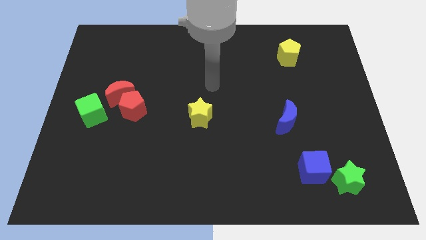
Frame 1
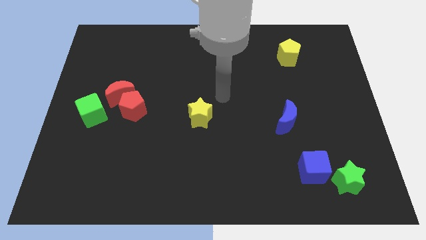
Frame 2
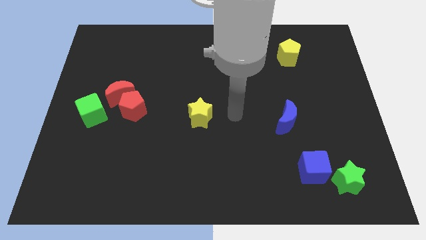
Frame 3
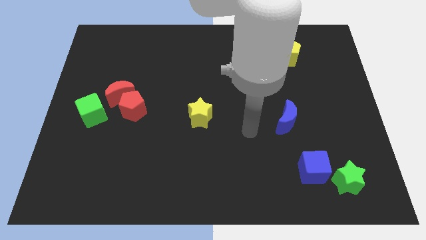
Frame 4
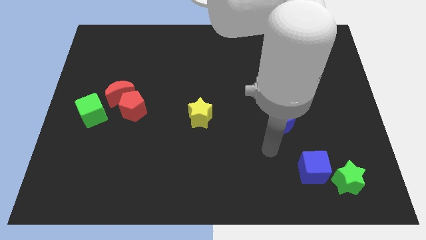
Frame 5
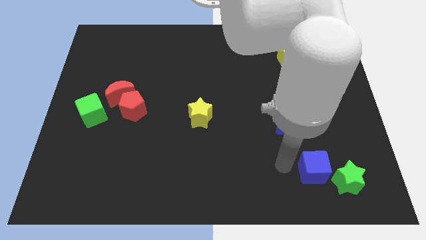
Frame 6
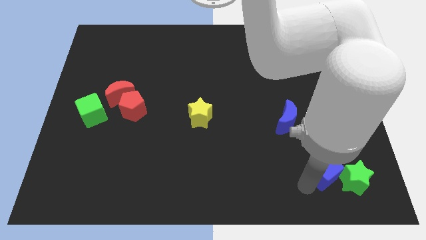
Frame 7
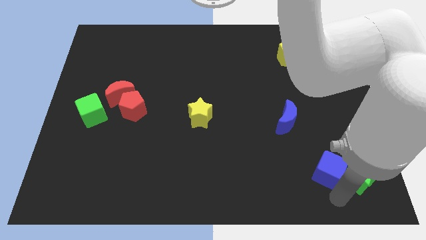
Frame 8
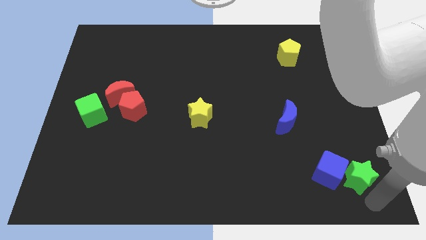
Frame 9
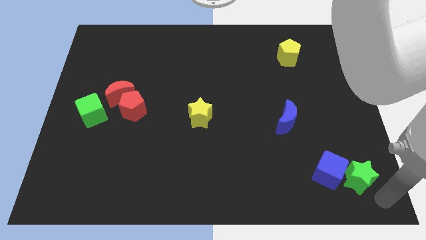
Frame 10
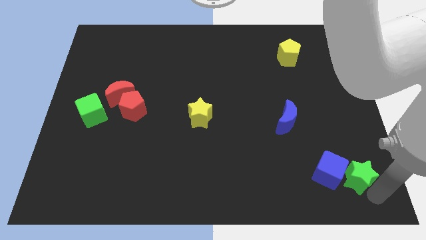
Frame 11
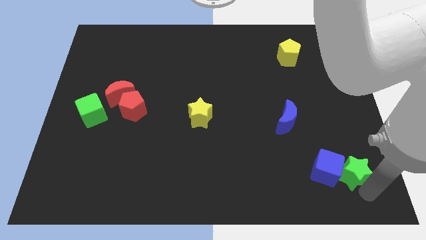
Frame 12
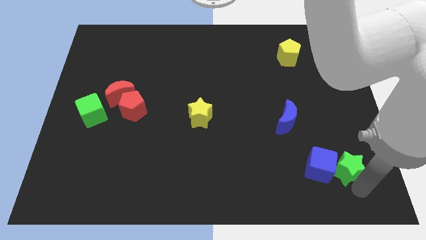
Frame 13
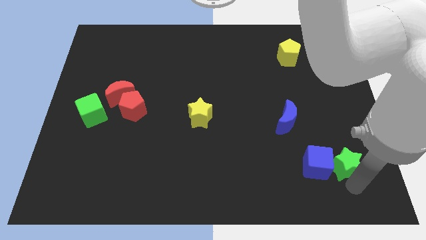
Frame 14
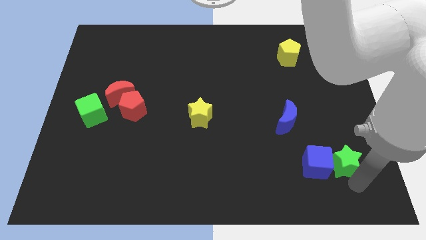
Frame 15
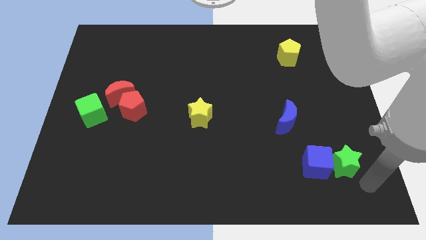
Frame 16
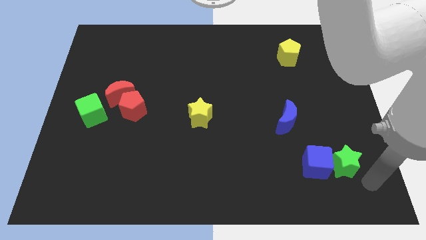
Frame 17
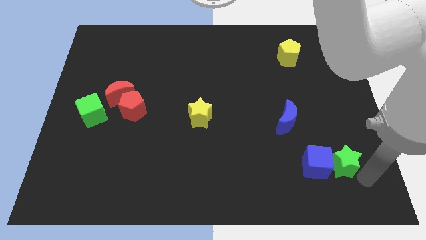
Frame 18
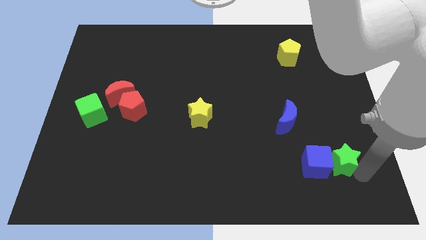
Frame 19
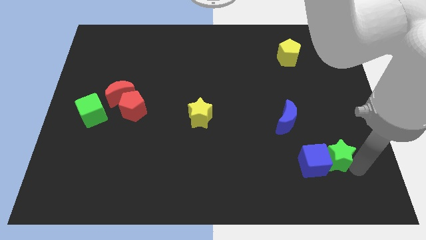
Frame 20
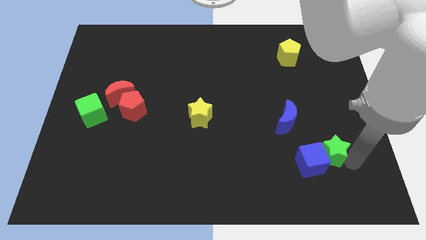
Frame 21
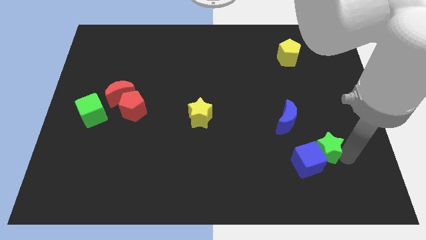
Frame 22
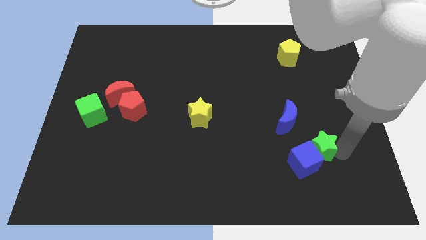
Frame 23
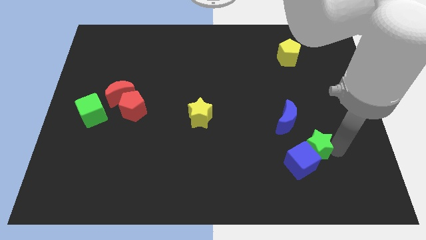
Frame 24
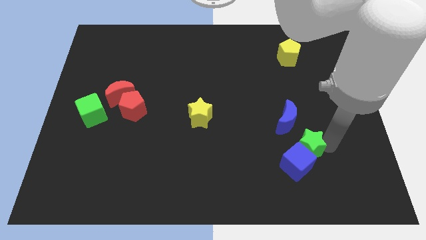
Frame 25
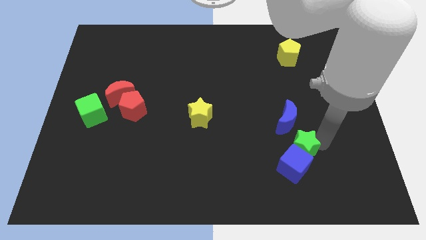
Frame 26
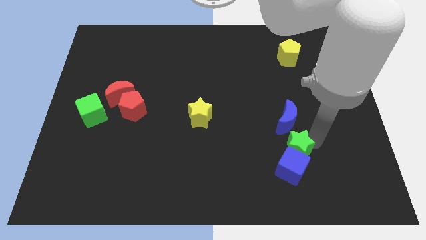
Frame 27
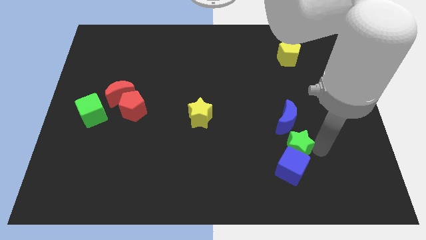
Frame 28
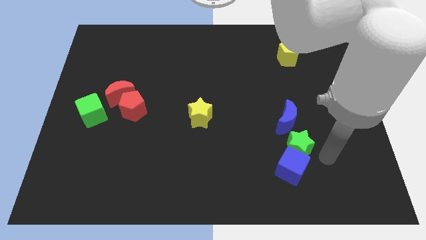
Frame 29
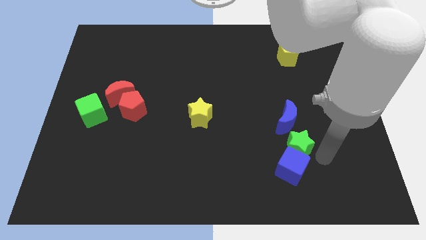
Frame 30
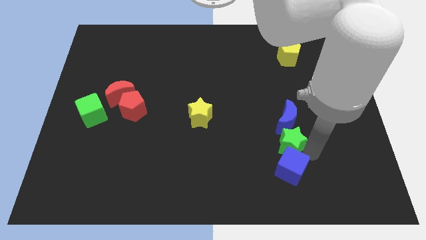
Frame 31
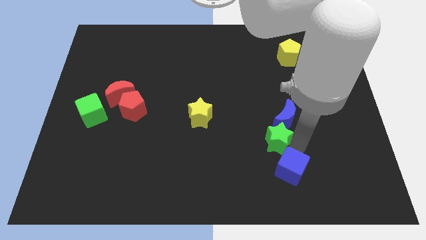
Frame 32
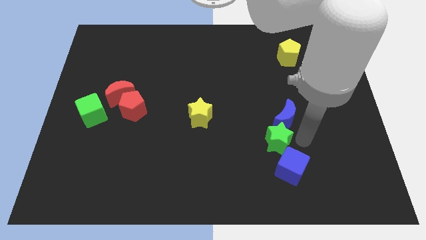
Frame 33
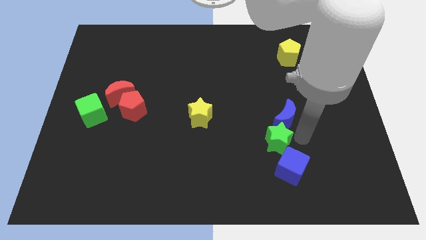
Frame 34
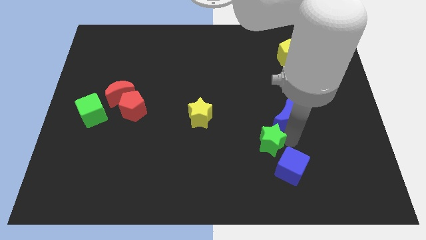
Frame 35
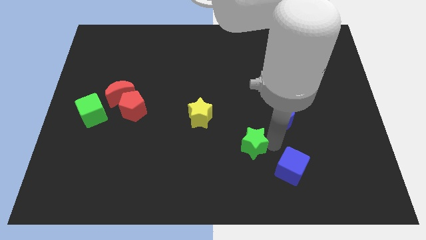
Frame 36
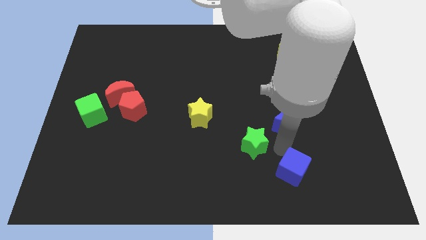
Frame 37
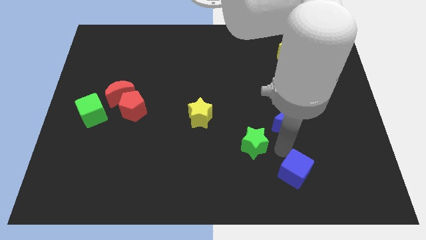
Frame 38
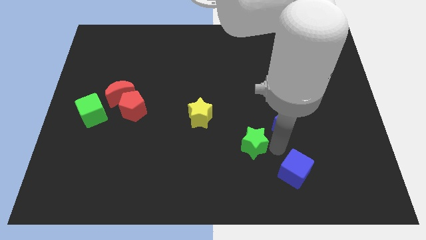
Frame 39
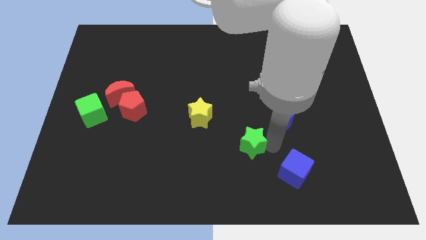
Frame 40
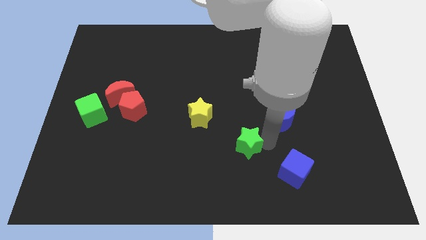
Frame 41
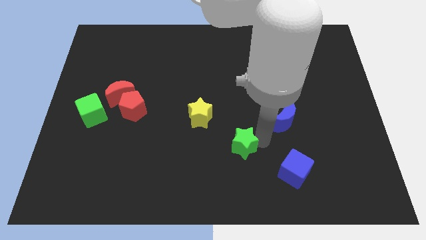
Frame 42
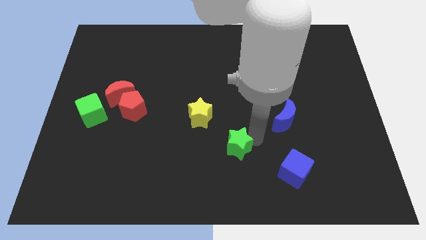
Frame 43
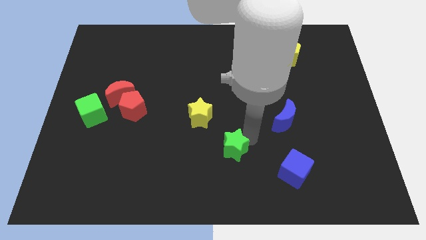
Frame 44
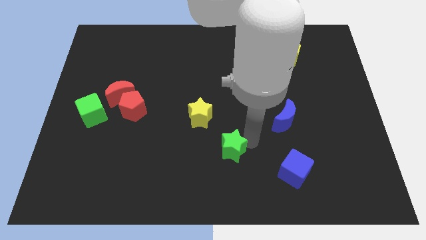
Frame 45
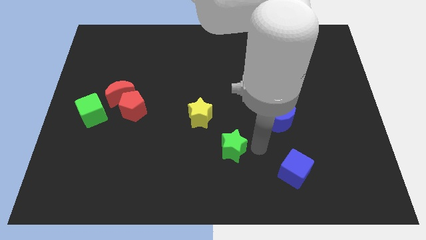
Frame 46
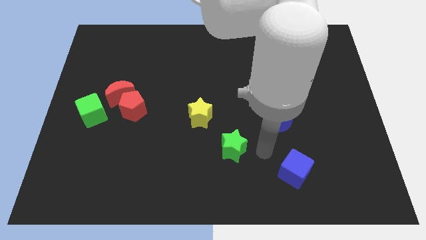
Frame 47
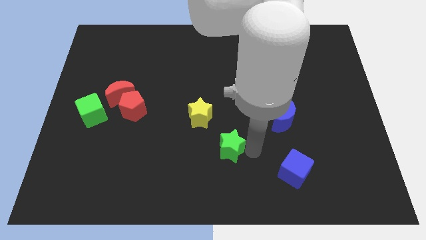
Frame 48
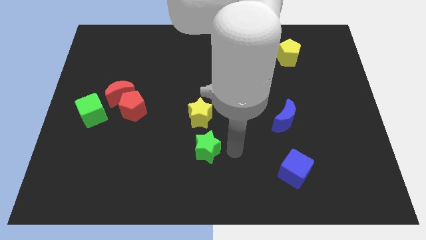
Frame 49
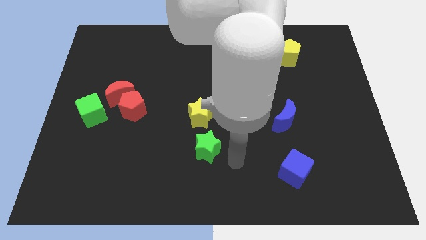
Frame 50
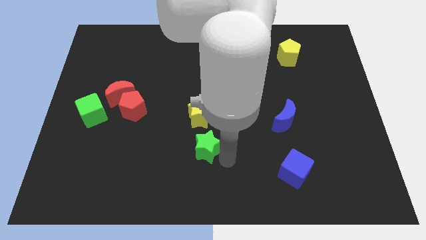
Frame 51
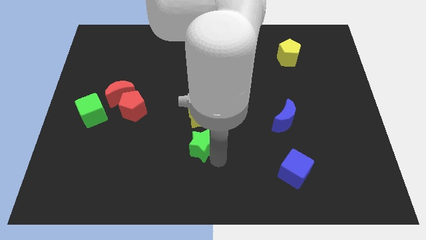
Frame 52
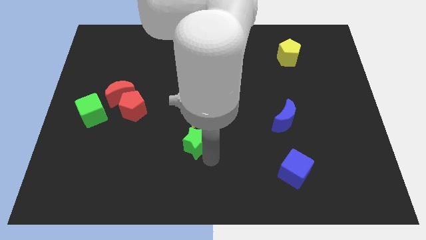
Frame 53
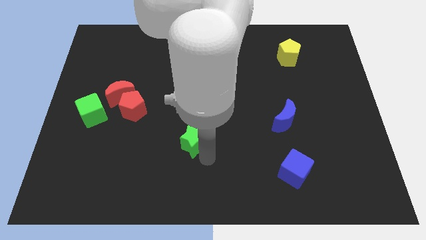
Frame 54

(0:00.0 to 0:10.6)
push the green star diagonally down and to the left of the yellow star

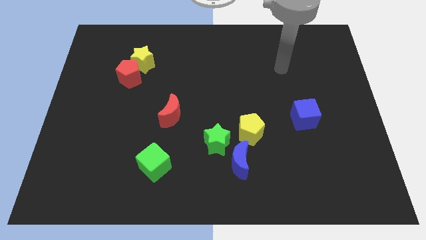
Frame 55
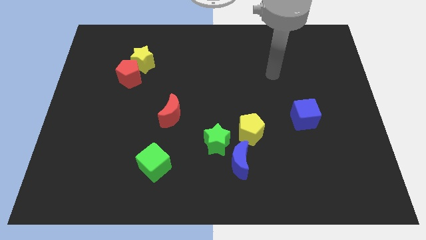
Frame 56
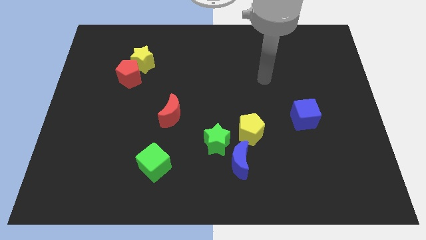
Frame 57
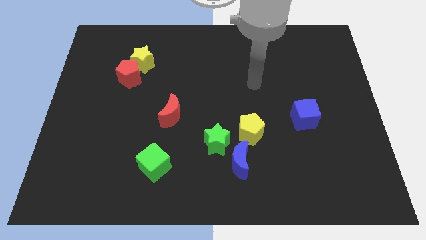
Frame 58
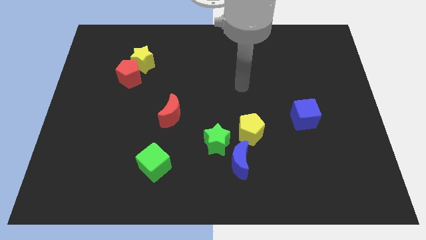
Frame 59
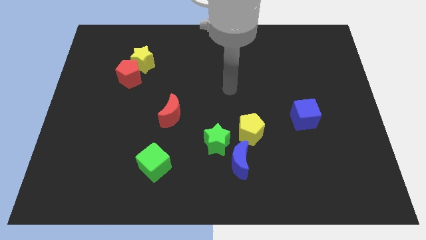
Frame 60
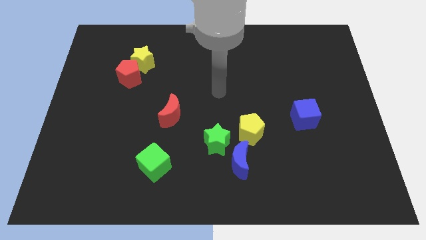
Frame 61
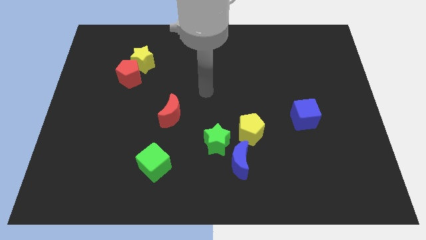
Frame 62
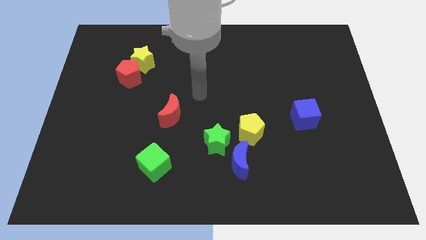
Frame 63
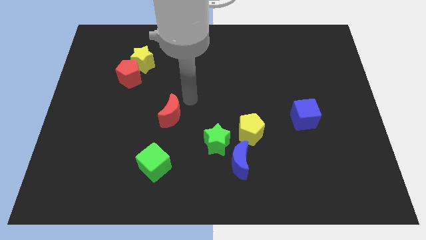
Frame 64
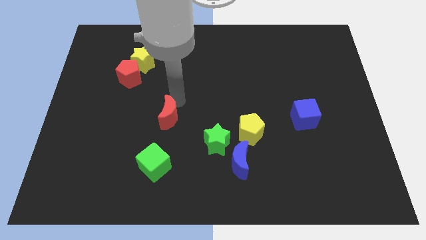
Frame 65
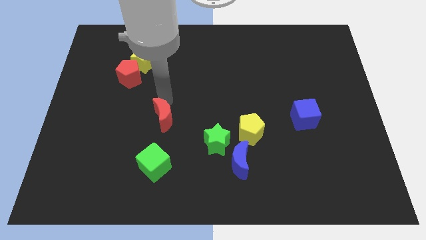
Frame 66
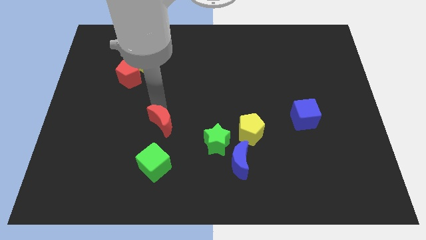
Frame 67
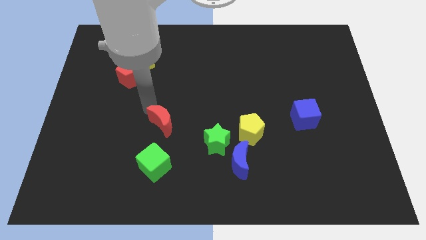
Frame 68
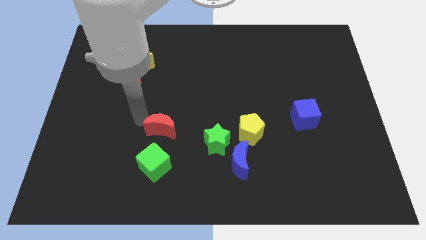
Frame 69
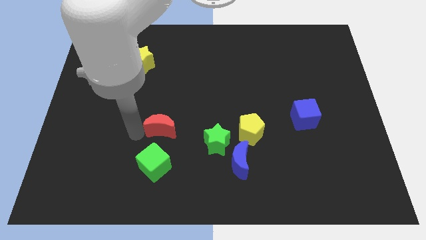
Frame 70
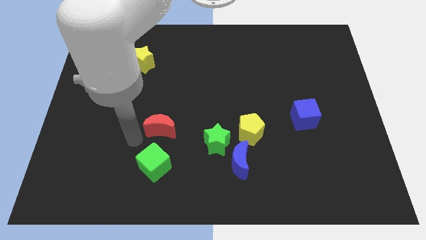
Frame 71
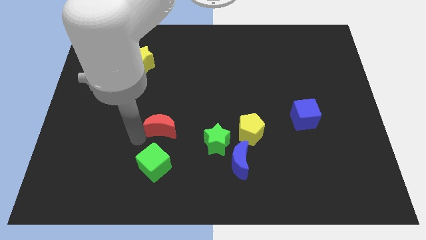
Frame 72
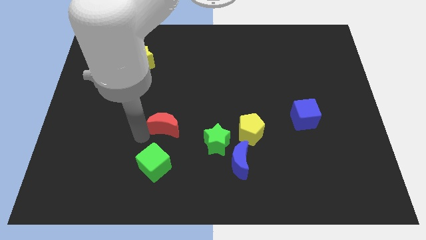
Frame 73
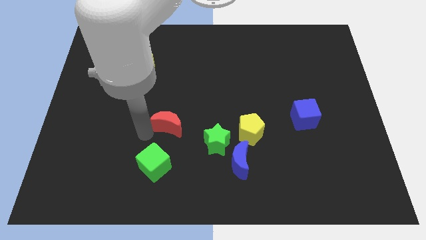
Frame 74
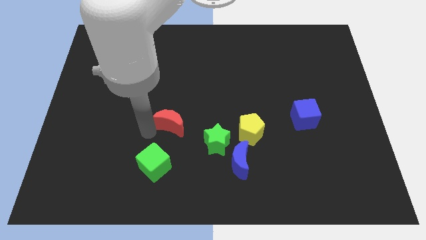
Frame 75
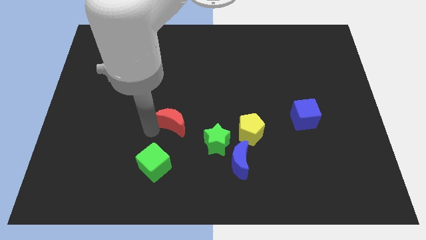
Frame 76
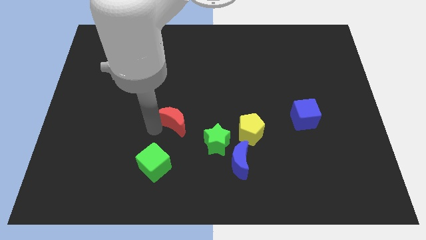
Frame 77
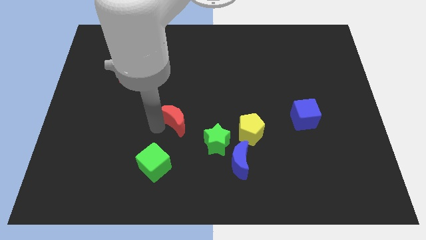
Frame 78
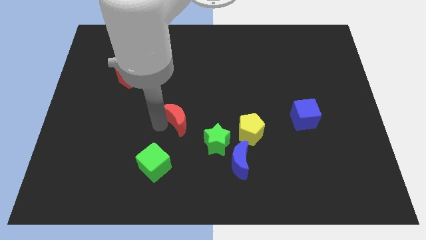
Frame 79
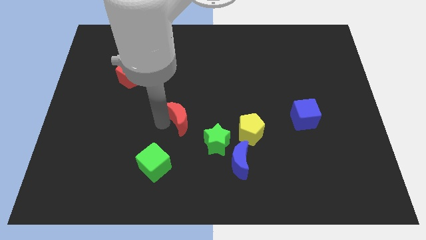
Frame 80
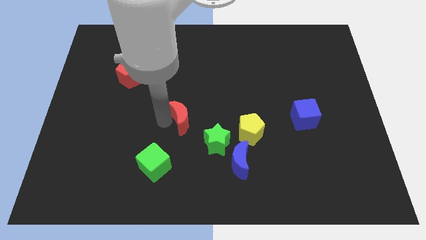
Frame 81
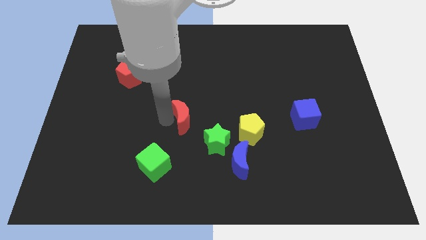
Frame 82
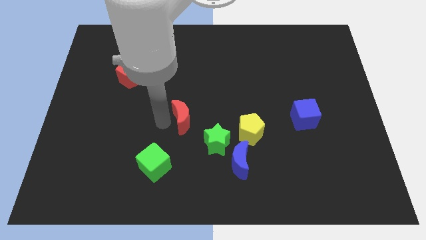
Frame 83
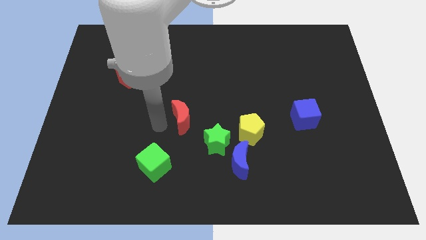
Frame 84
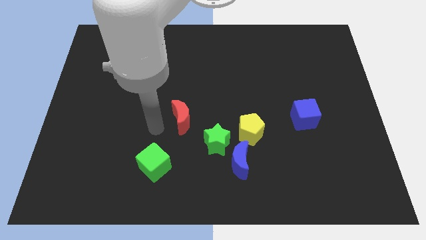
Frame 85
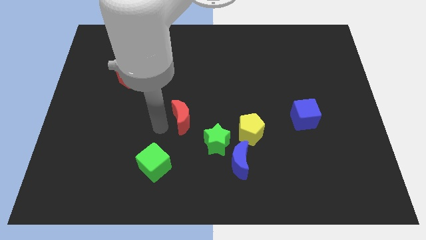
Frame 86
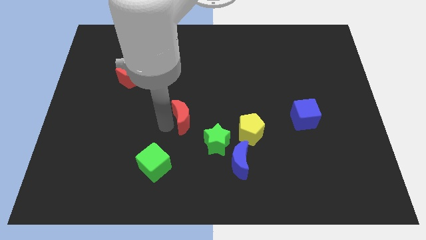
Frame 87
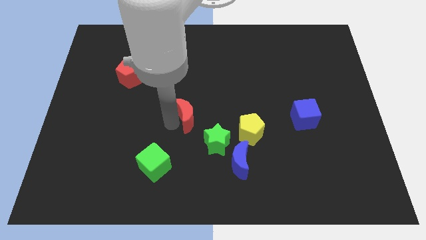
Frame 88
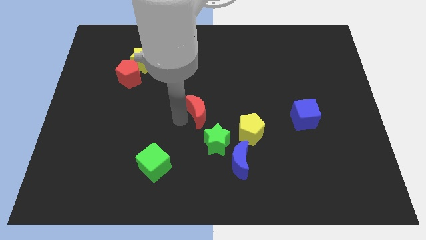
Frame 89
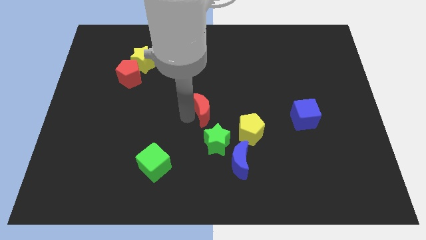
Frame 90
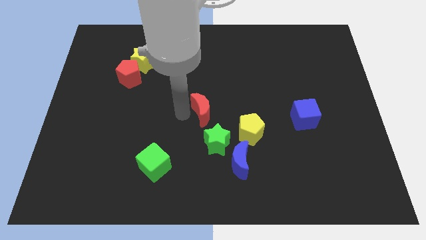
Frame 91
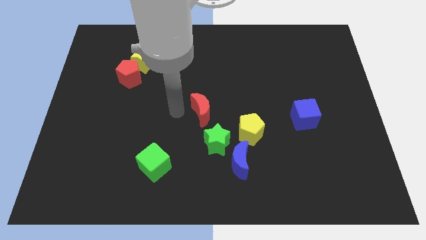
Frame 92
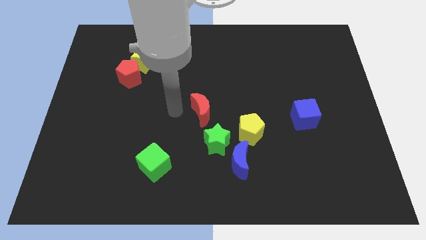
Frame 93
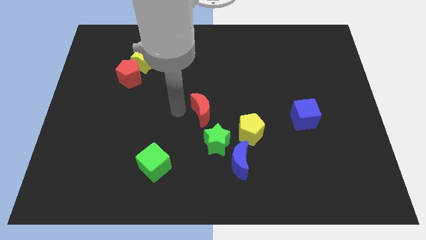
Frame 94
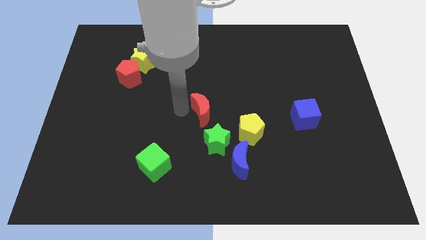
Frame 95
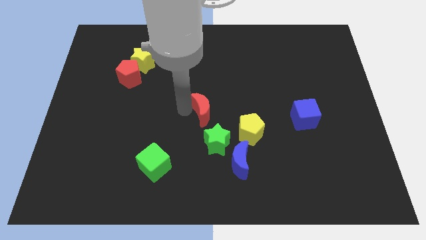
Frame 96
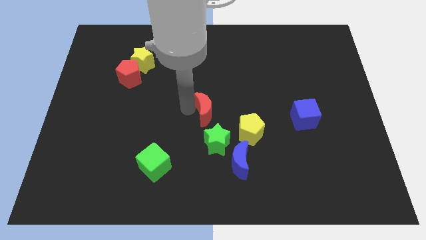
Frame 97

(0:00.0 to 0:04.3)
slide the red moon to the top left of the yellow pentagon
